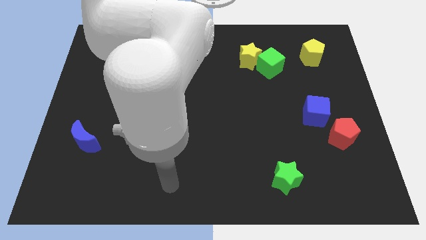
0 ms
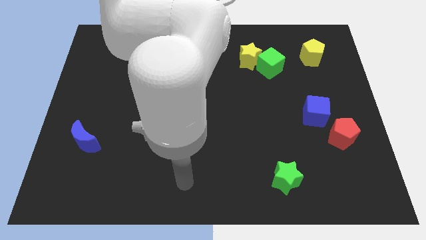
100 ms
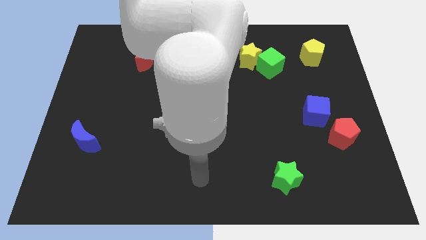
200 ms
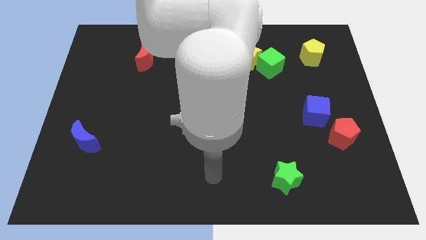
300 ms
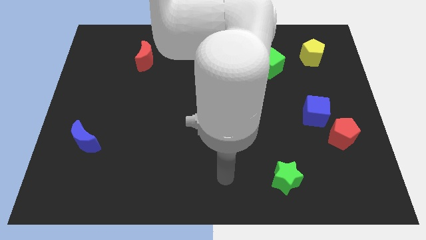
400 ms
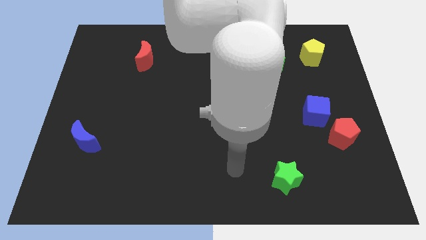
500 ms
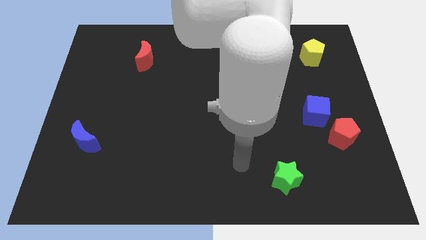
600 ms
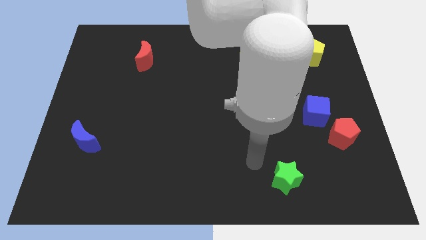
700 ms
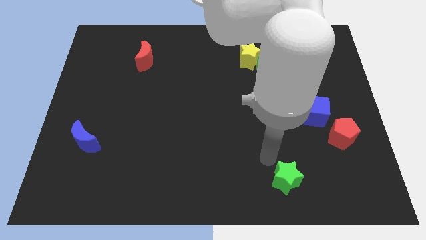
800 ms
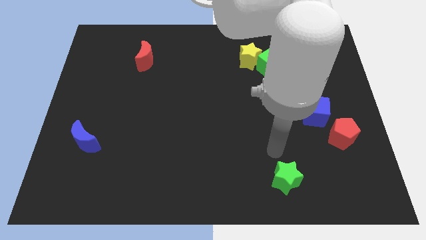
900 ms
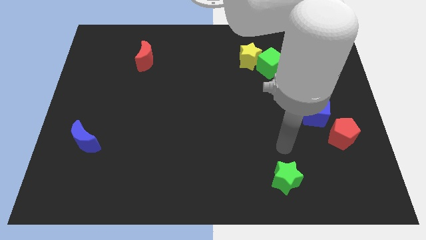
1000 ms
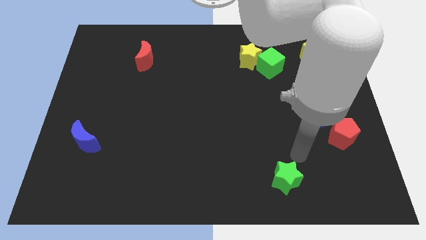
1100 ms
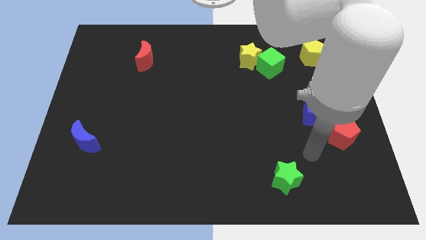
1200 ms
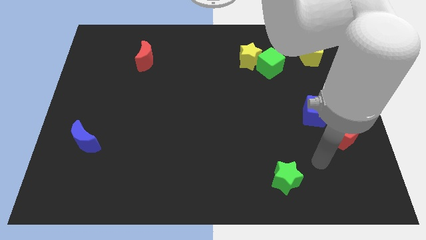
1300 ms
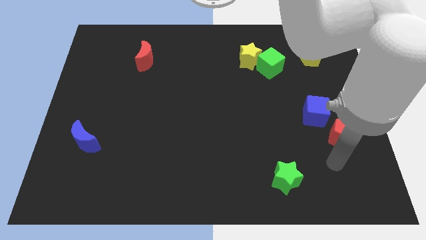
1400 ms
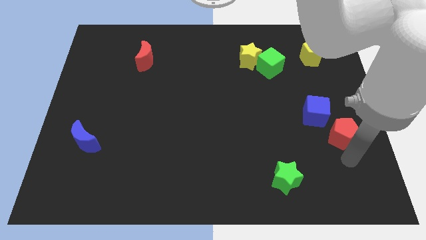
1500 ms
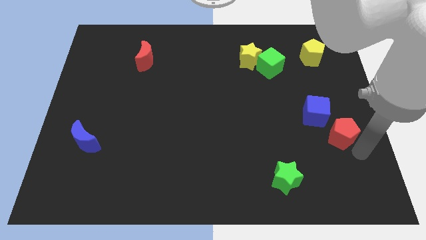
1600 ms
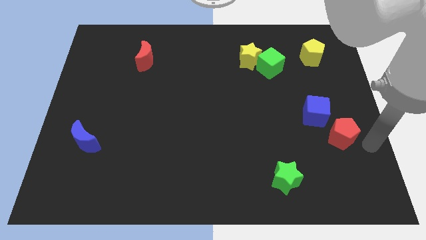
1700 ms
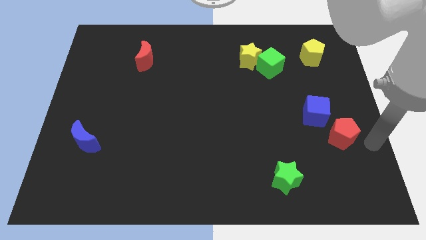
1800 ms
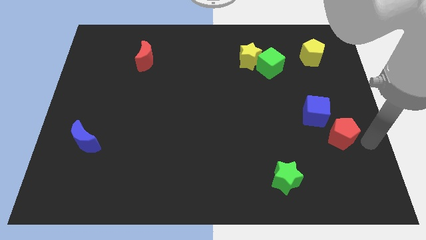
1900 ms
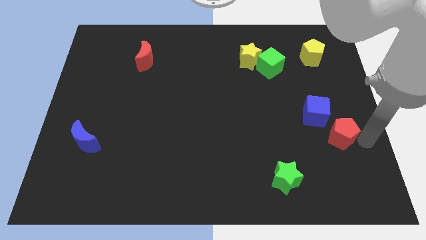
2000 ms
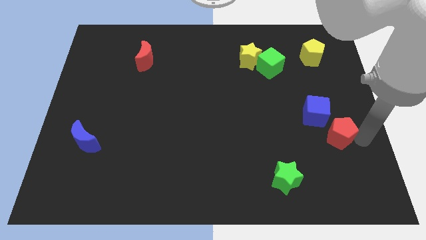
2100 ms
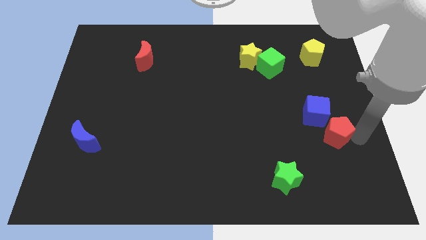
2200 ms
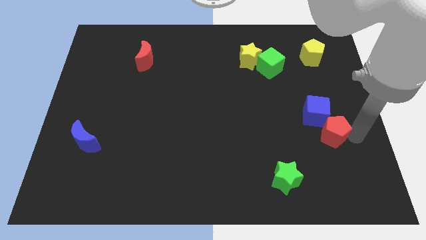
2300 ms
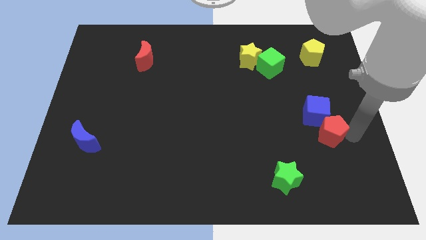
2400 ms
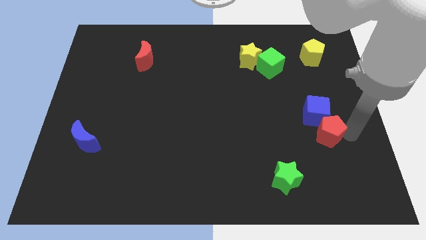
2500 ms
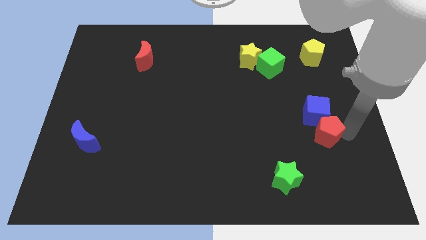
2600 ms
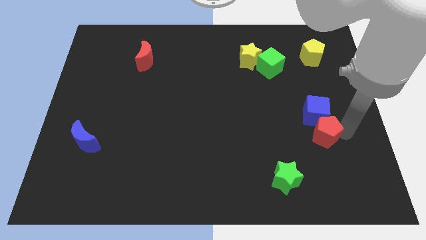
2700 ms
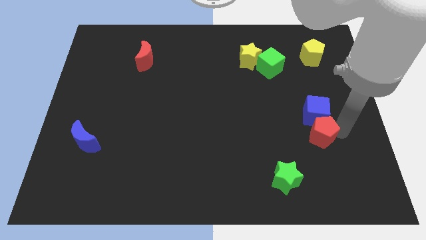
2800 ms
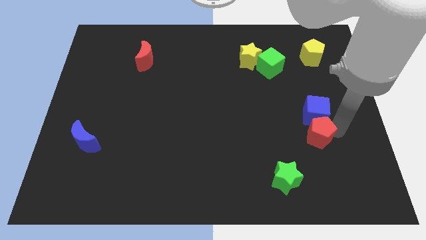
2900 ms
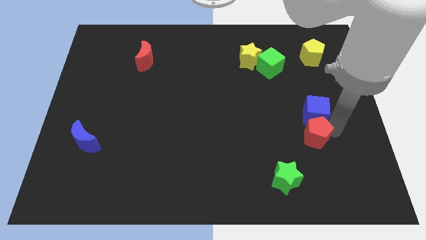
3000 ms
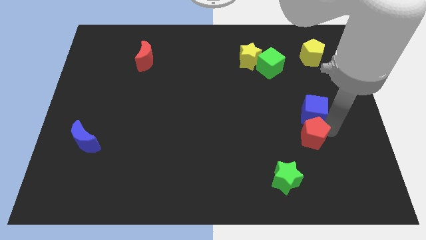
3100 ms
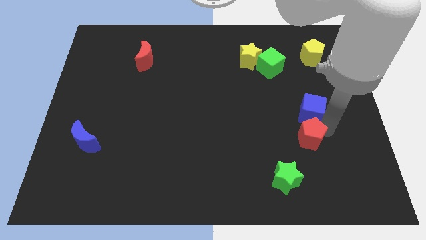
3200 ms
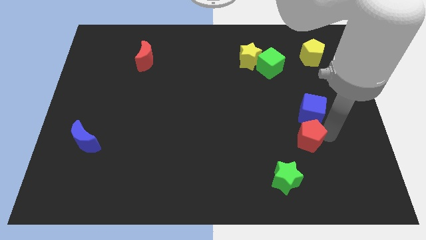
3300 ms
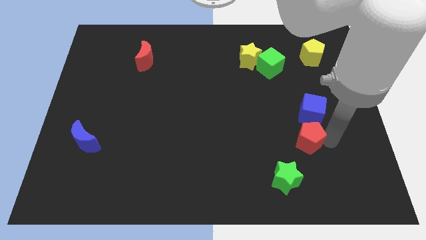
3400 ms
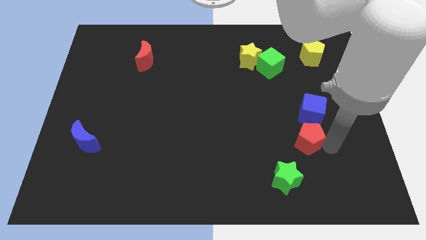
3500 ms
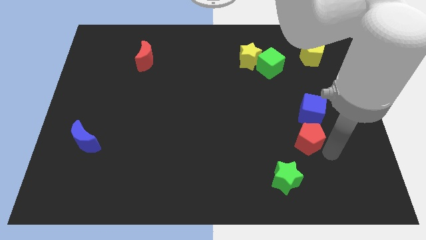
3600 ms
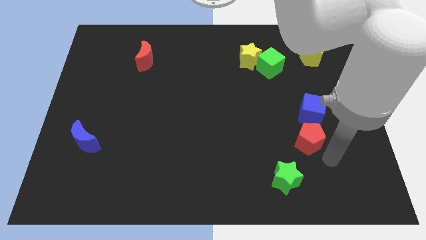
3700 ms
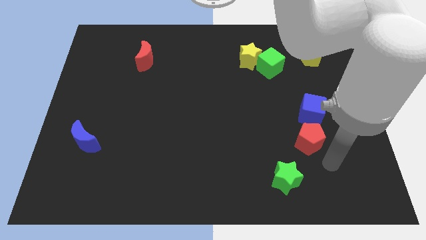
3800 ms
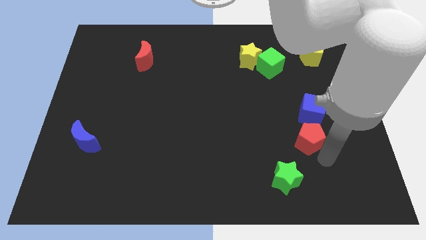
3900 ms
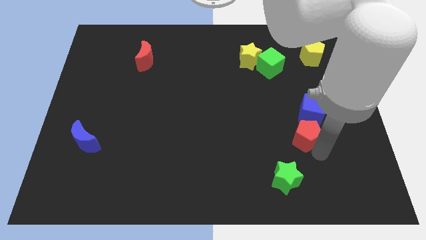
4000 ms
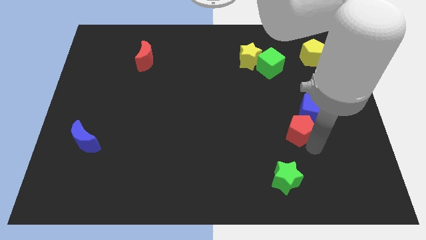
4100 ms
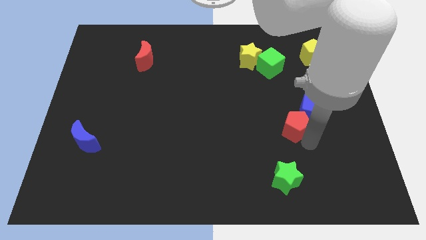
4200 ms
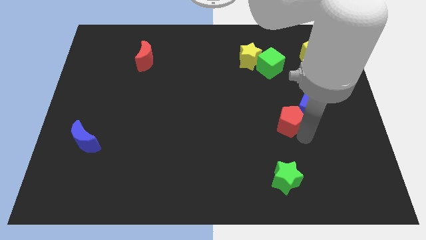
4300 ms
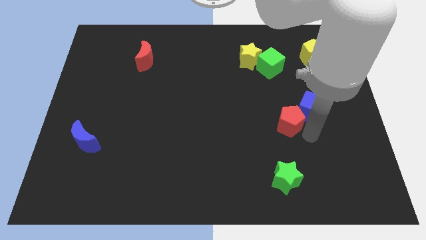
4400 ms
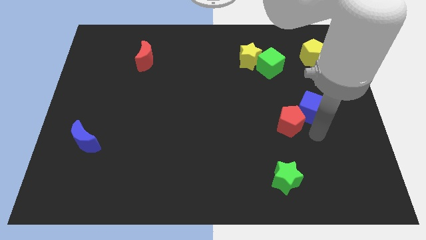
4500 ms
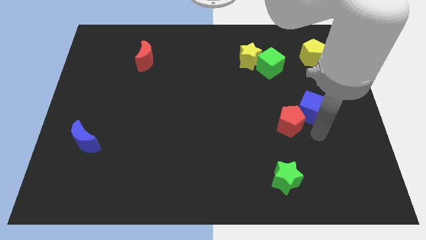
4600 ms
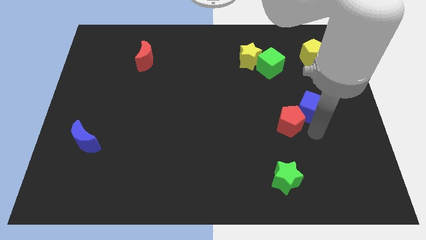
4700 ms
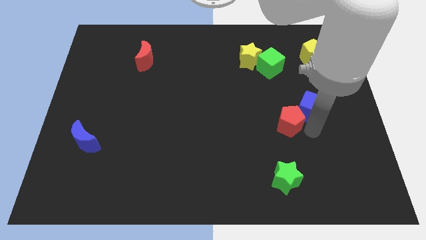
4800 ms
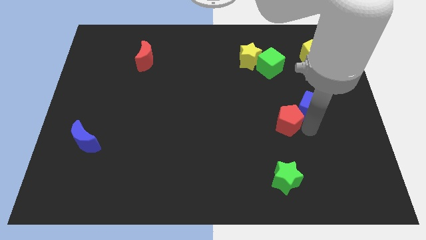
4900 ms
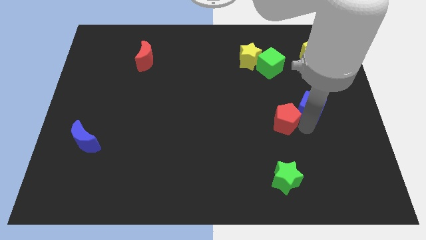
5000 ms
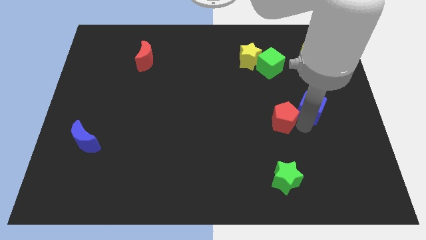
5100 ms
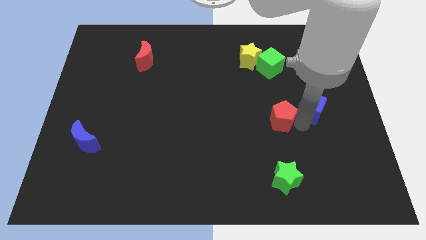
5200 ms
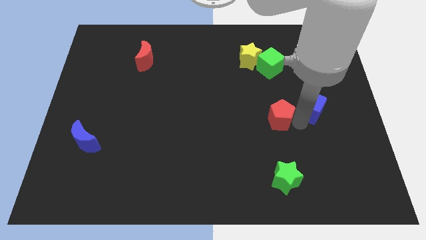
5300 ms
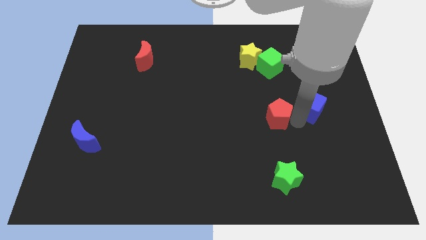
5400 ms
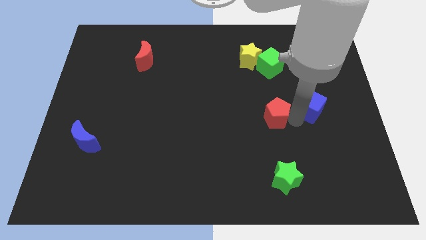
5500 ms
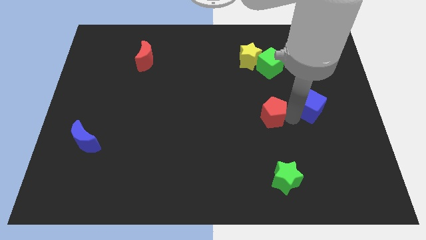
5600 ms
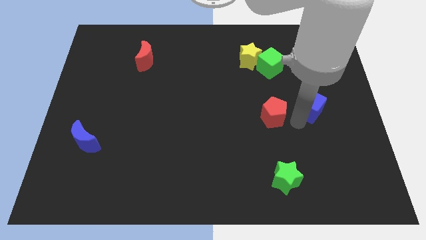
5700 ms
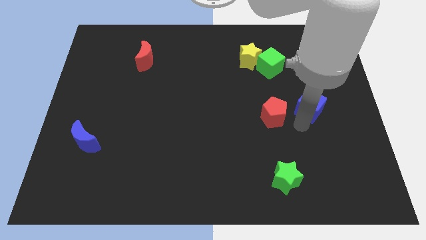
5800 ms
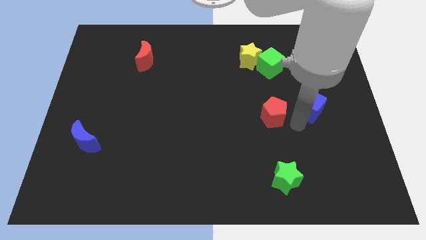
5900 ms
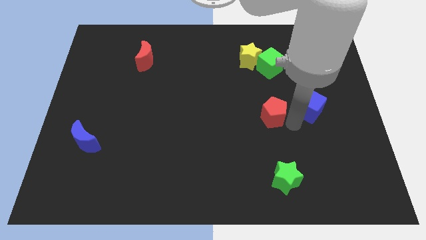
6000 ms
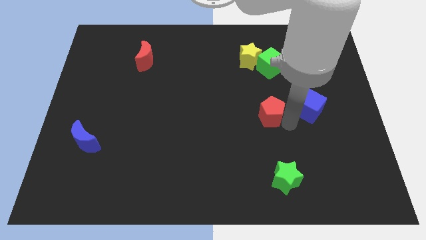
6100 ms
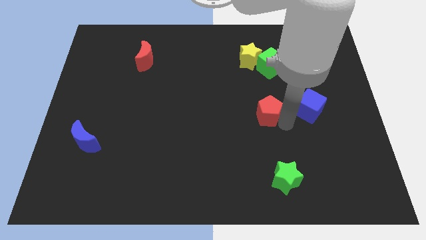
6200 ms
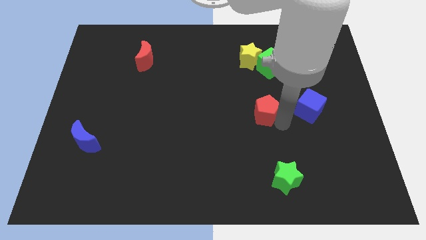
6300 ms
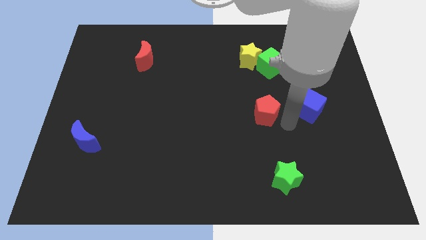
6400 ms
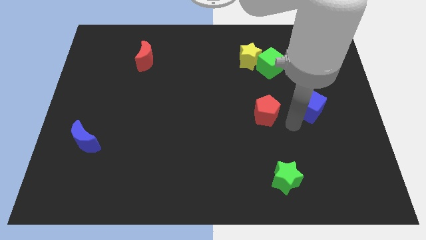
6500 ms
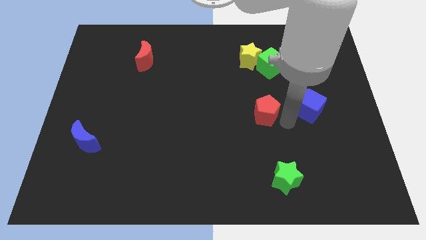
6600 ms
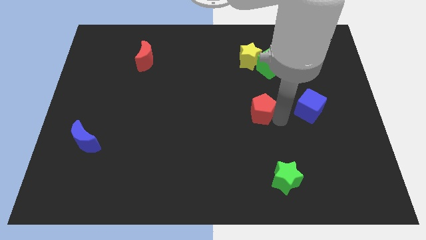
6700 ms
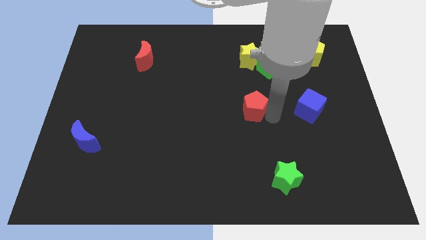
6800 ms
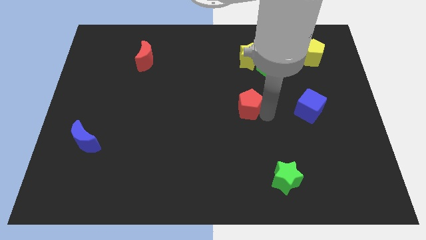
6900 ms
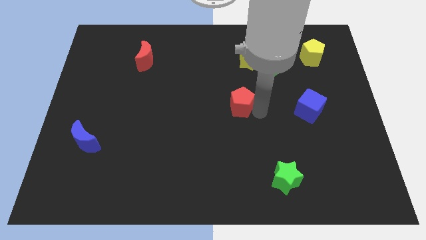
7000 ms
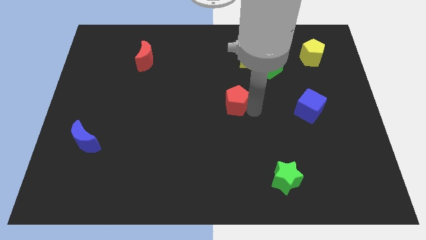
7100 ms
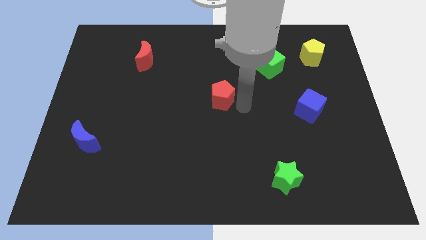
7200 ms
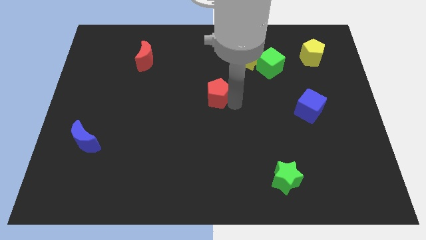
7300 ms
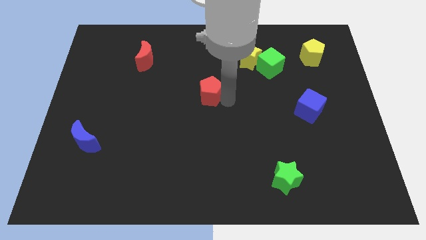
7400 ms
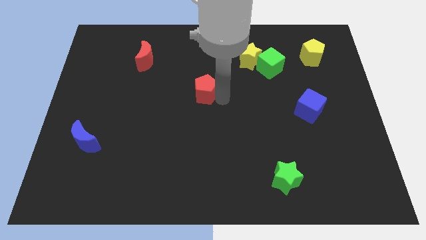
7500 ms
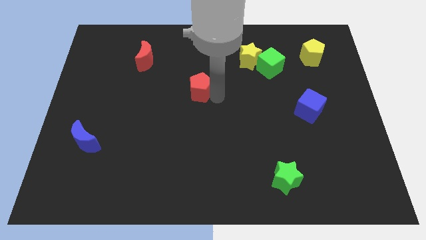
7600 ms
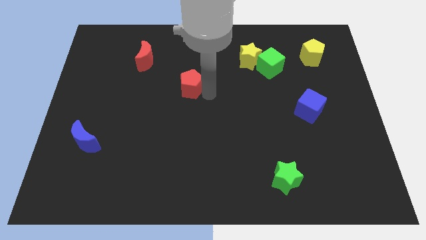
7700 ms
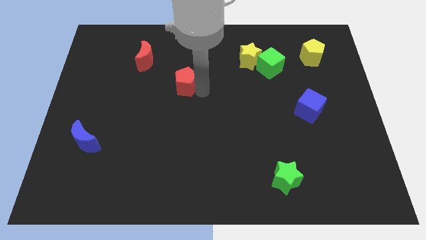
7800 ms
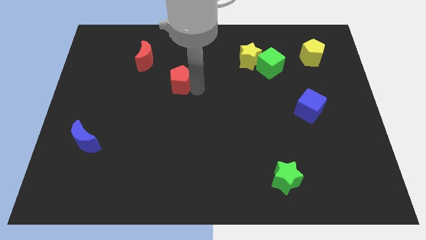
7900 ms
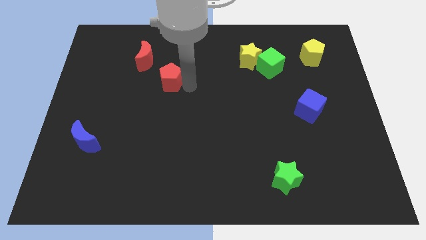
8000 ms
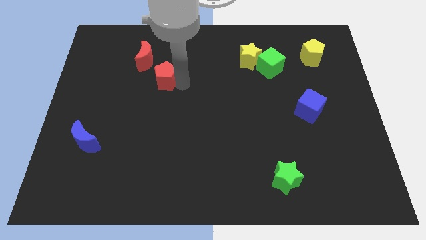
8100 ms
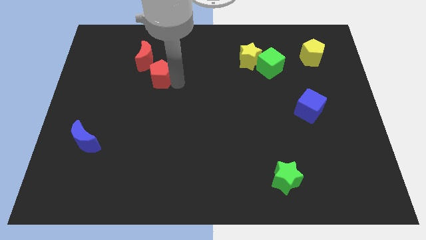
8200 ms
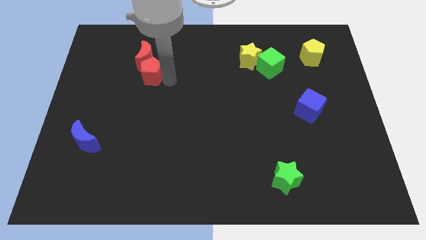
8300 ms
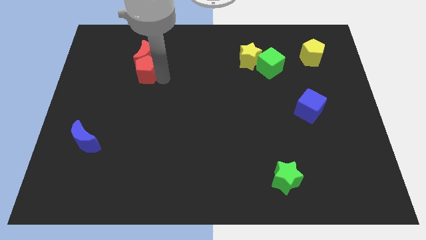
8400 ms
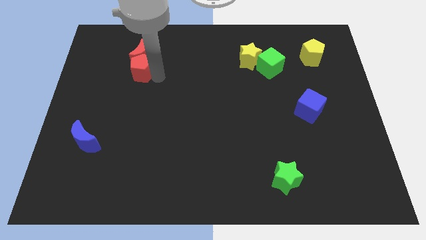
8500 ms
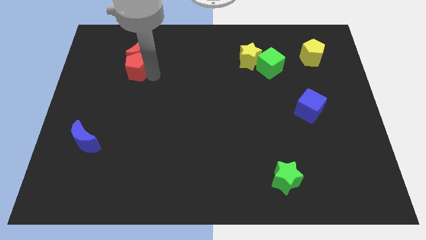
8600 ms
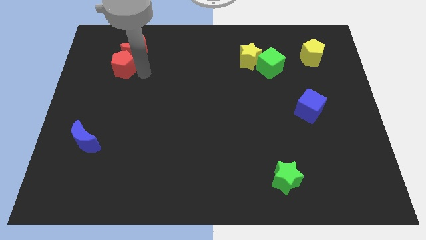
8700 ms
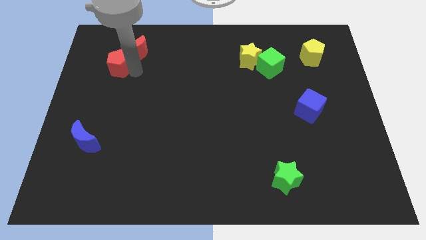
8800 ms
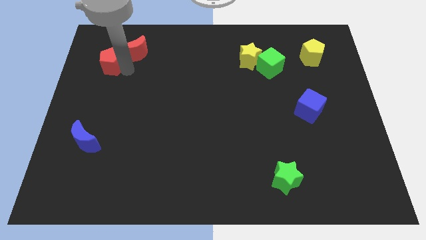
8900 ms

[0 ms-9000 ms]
push the red pentagon just left of the red moon
